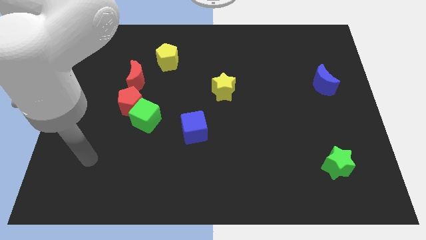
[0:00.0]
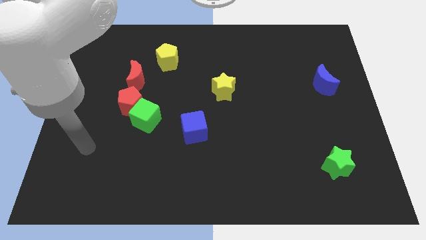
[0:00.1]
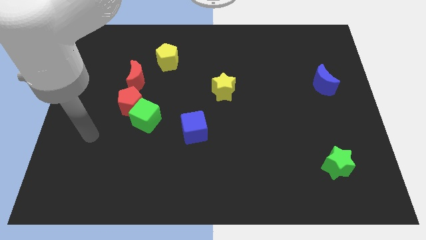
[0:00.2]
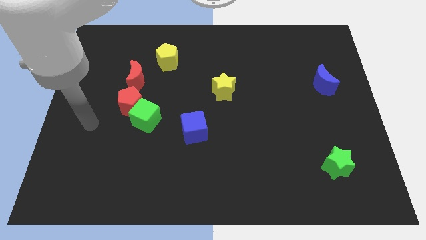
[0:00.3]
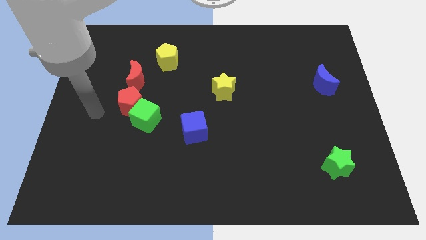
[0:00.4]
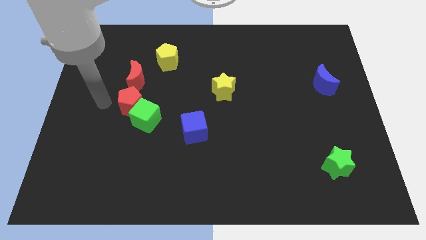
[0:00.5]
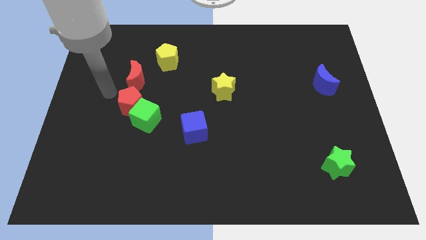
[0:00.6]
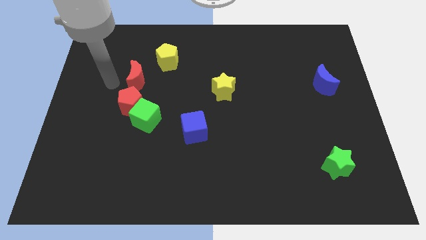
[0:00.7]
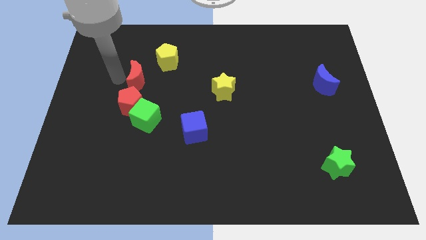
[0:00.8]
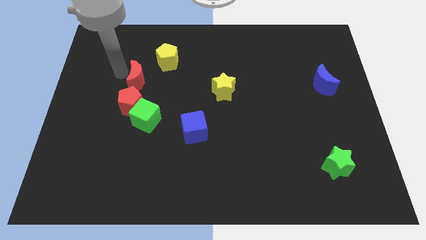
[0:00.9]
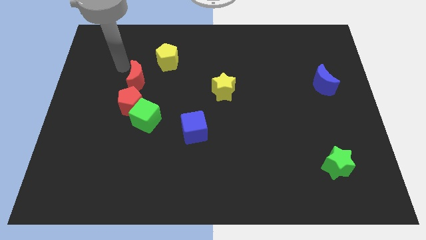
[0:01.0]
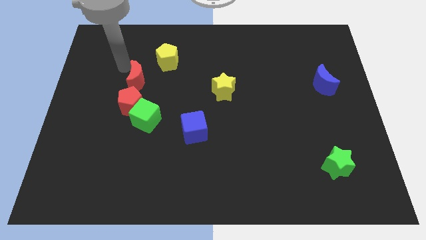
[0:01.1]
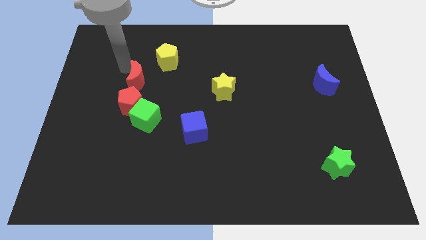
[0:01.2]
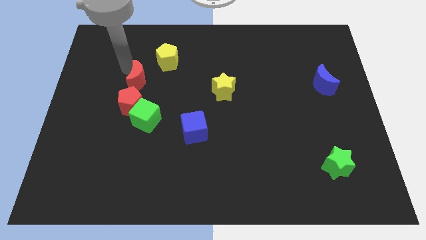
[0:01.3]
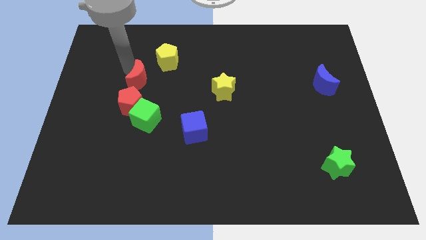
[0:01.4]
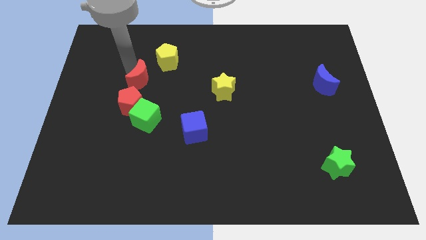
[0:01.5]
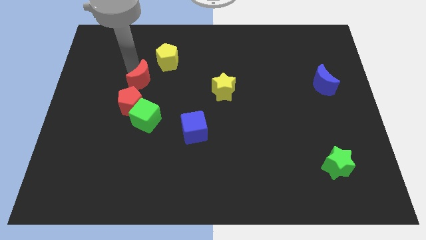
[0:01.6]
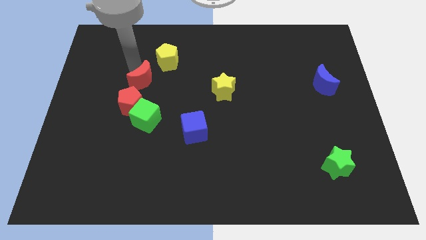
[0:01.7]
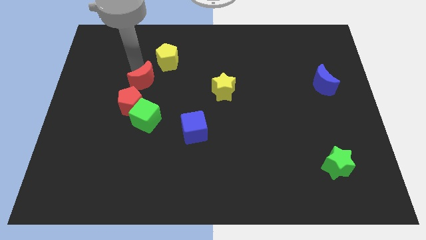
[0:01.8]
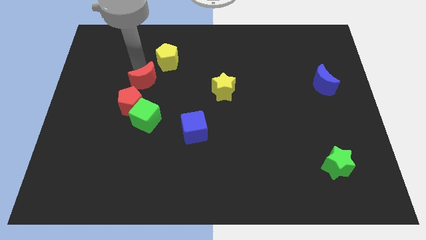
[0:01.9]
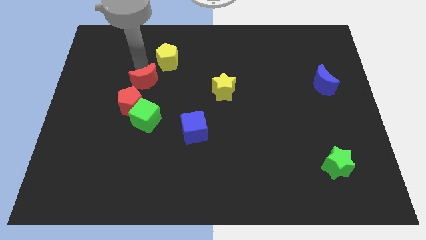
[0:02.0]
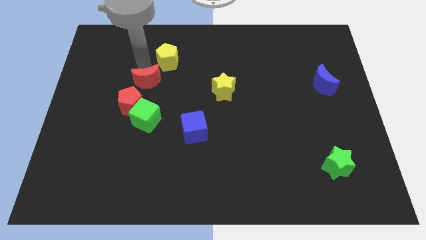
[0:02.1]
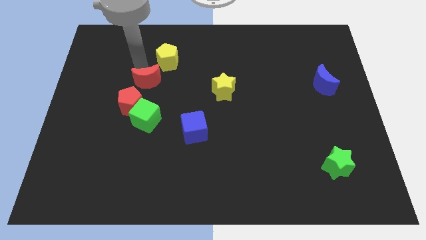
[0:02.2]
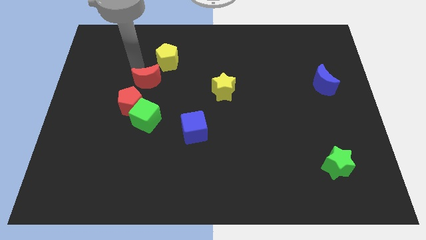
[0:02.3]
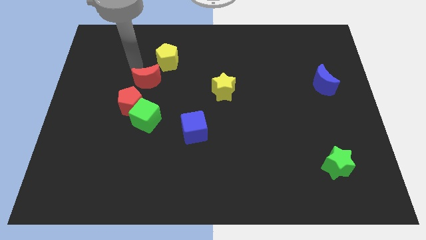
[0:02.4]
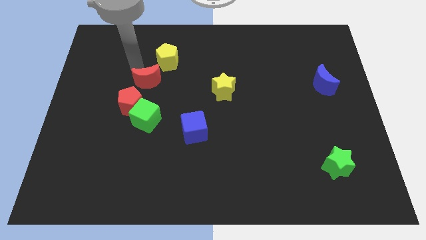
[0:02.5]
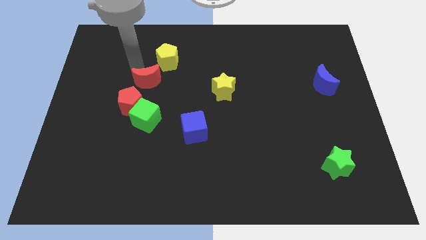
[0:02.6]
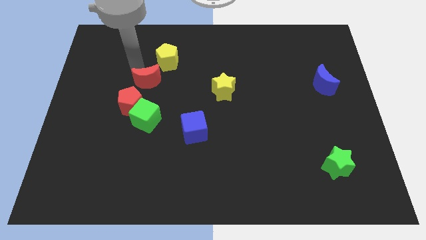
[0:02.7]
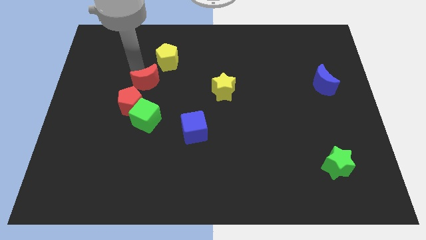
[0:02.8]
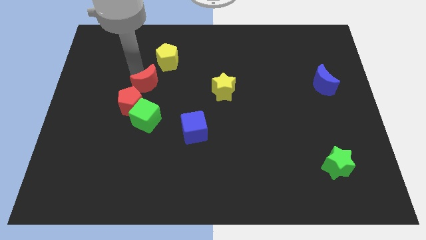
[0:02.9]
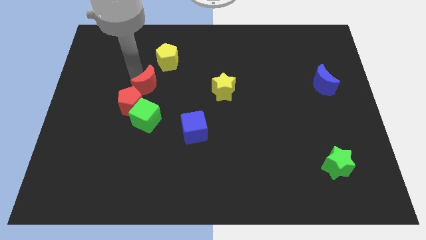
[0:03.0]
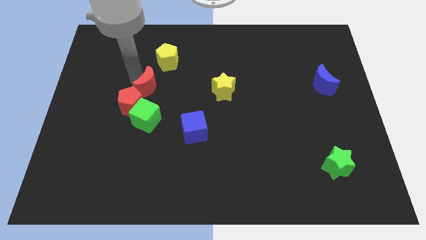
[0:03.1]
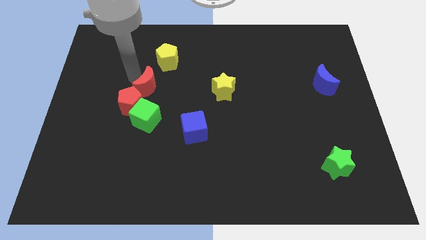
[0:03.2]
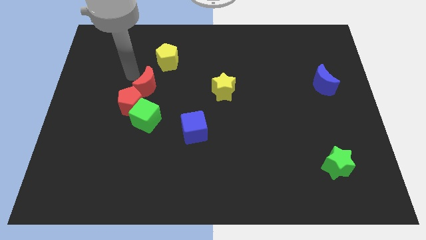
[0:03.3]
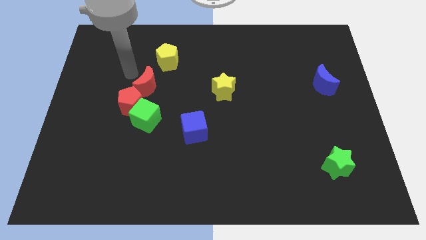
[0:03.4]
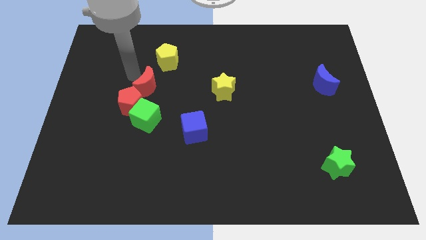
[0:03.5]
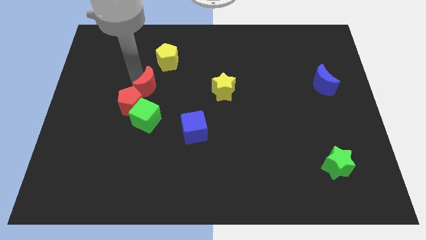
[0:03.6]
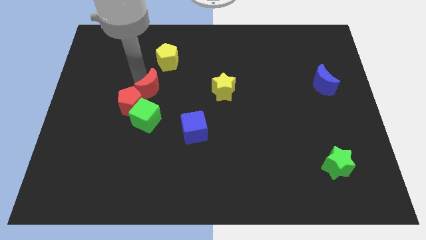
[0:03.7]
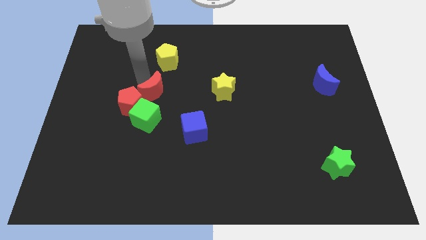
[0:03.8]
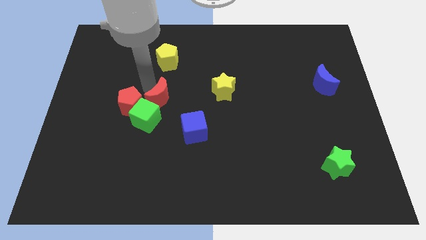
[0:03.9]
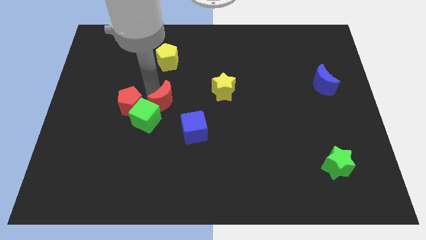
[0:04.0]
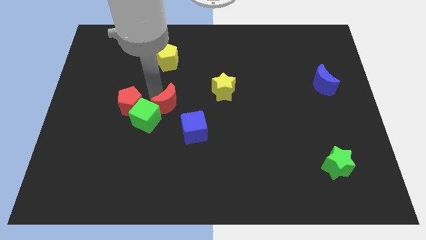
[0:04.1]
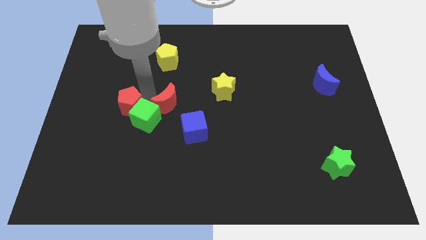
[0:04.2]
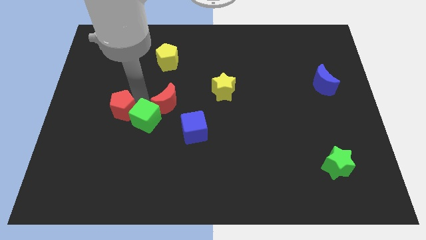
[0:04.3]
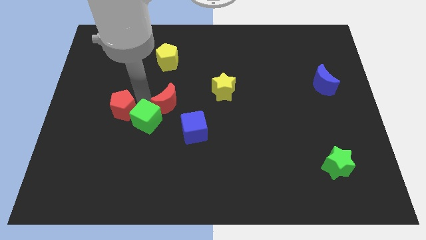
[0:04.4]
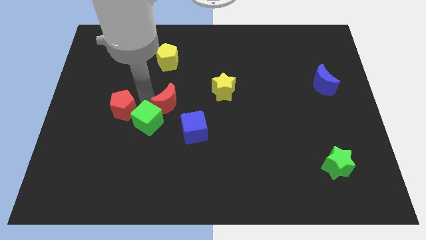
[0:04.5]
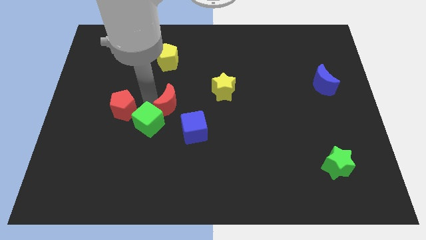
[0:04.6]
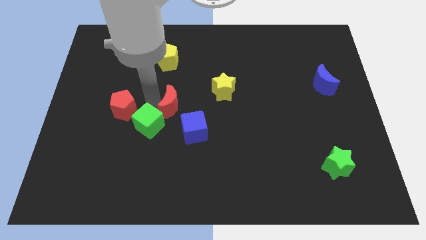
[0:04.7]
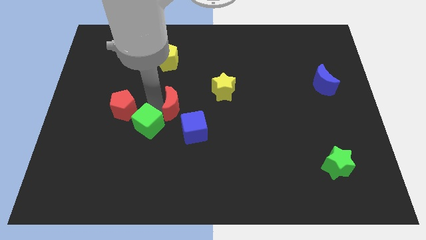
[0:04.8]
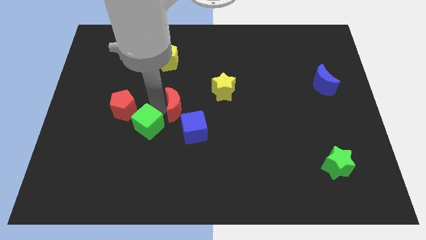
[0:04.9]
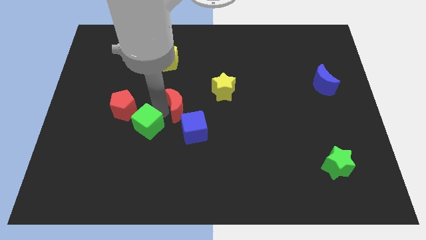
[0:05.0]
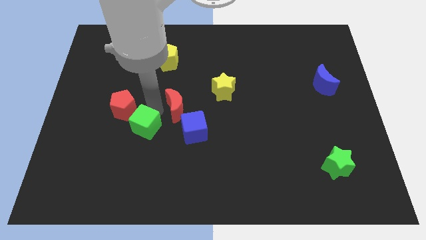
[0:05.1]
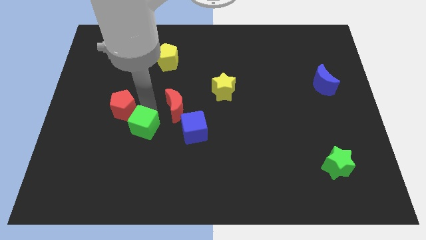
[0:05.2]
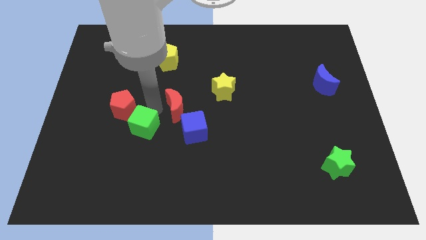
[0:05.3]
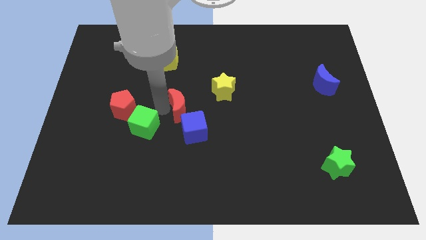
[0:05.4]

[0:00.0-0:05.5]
slide the red moon diagonally down and to the left of the yellow star

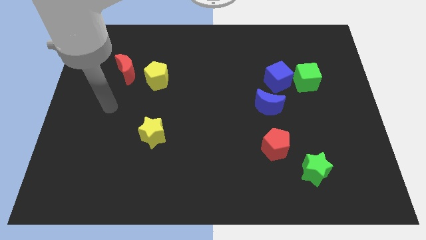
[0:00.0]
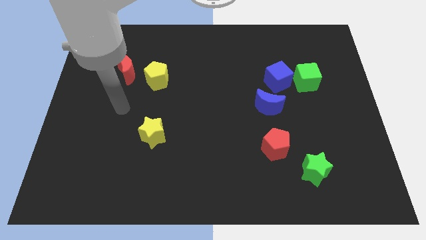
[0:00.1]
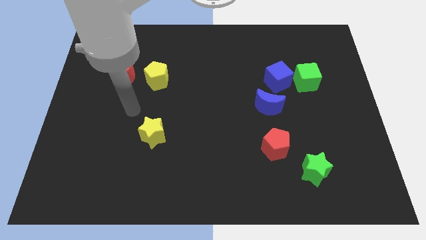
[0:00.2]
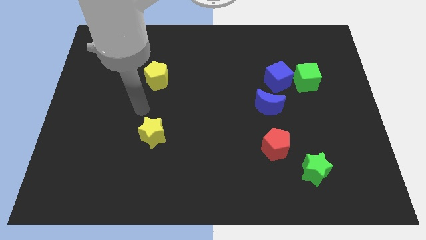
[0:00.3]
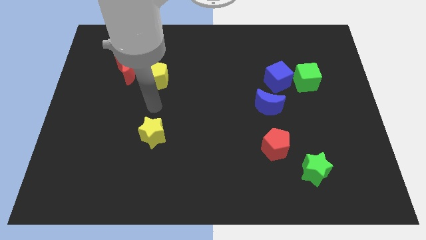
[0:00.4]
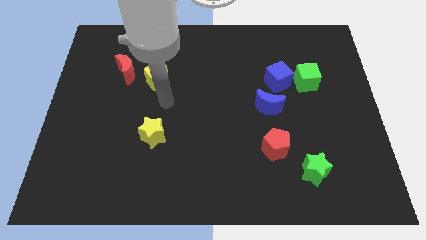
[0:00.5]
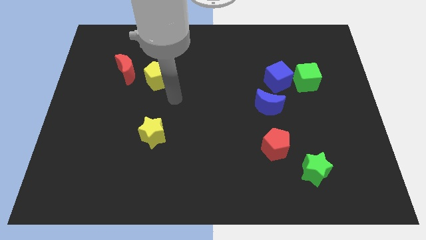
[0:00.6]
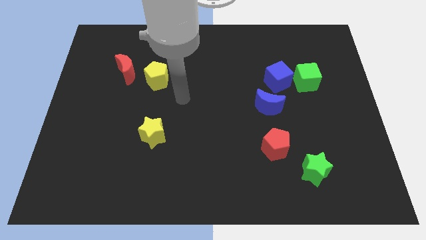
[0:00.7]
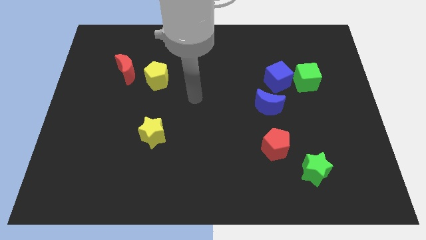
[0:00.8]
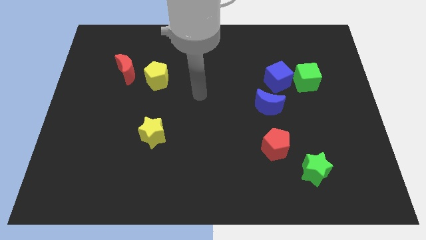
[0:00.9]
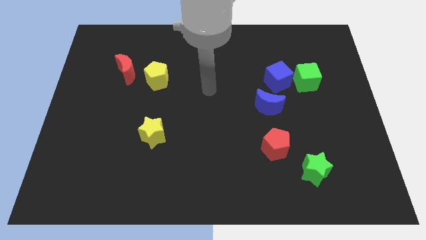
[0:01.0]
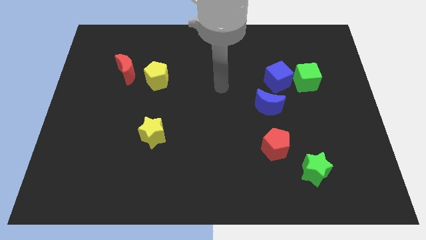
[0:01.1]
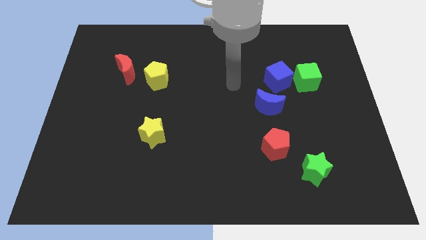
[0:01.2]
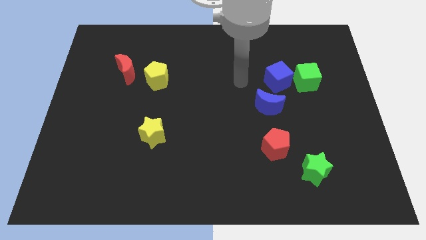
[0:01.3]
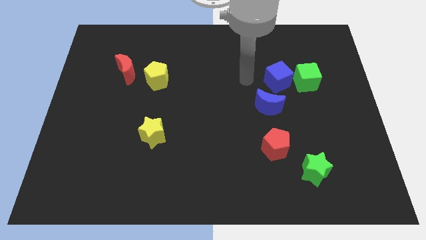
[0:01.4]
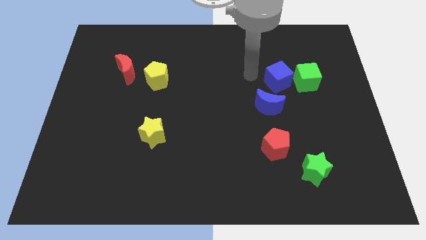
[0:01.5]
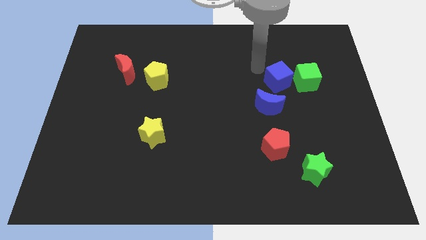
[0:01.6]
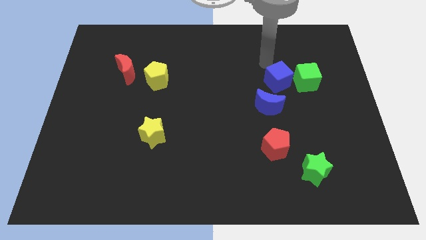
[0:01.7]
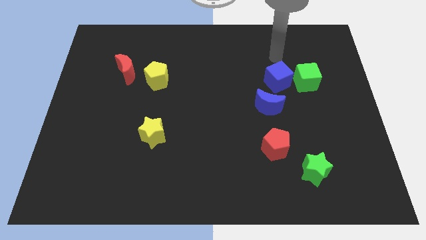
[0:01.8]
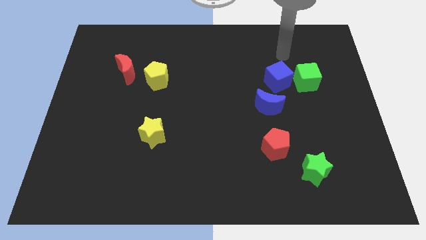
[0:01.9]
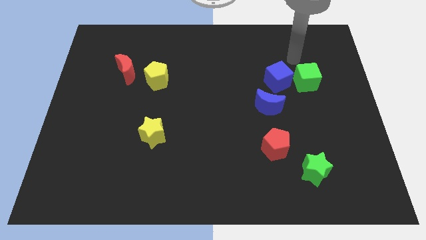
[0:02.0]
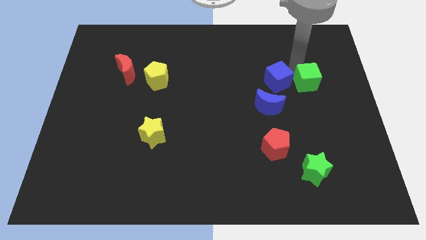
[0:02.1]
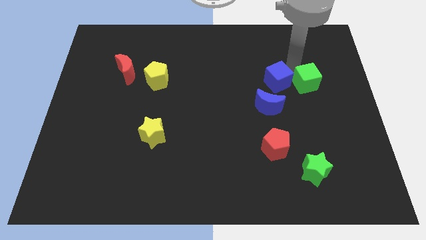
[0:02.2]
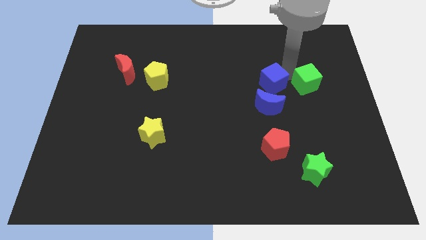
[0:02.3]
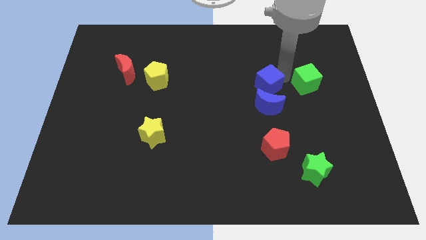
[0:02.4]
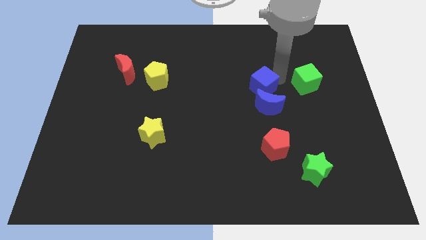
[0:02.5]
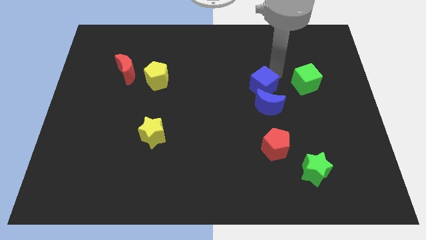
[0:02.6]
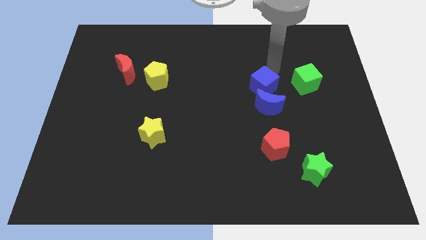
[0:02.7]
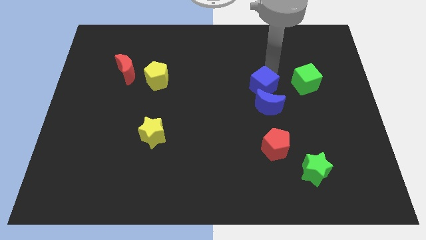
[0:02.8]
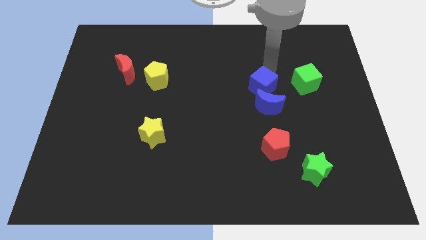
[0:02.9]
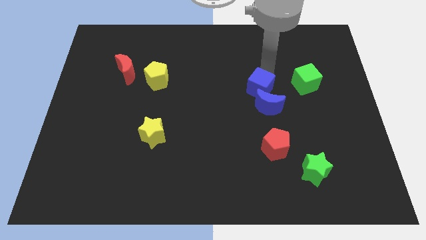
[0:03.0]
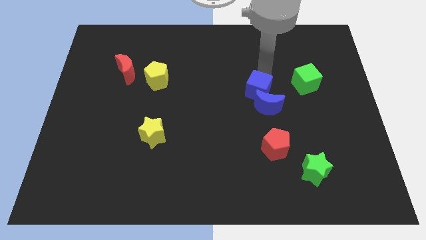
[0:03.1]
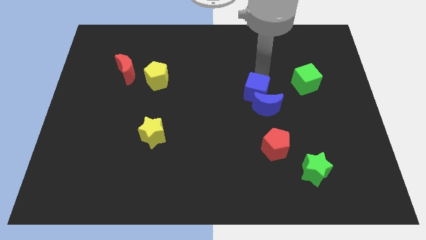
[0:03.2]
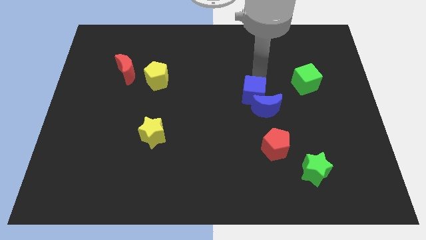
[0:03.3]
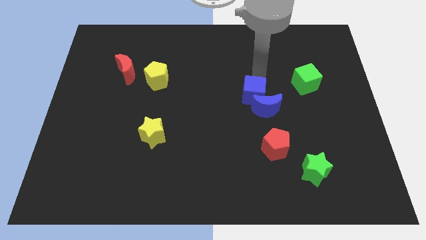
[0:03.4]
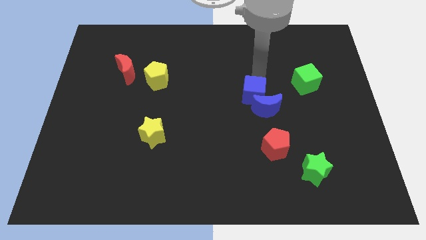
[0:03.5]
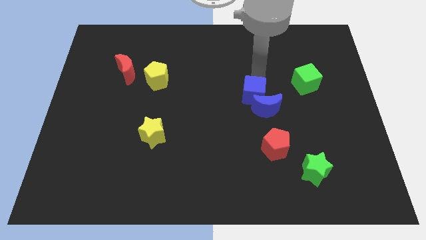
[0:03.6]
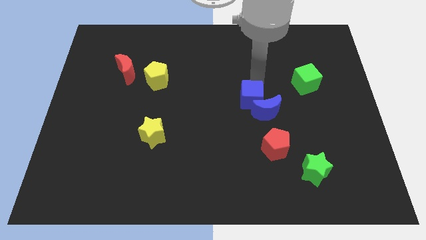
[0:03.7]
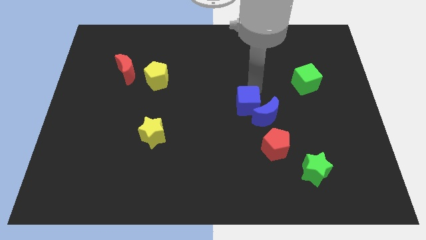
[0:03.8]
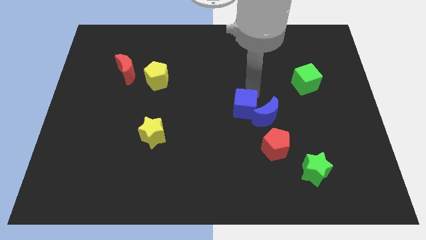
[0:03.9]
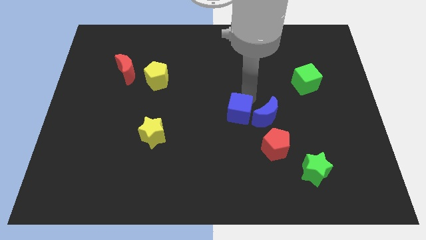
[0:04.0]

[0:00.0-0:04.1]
move the blue cube to the top left side of the red pentagon
